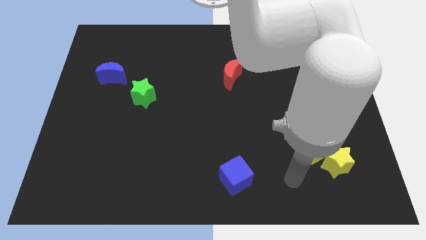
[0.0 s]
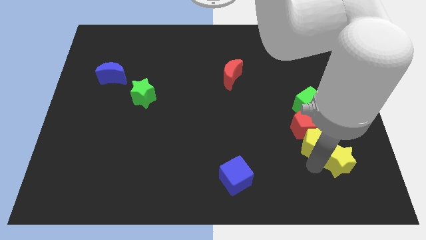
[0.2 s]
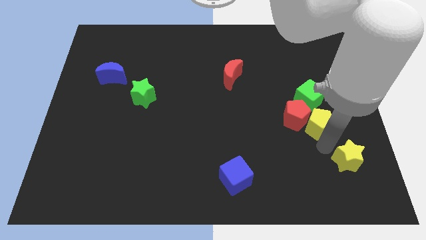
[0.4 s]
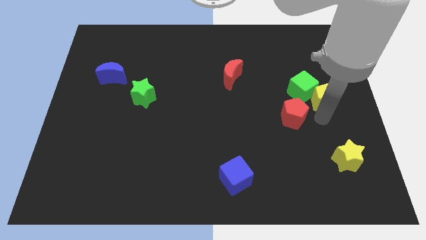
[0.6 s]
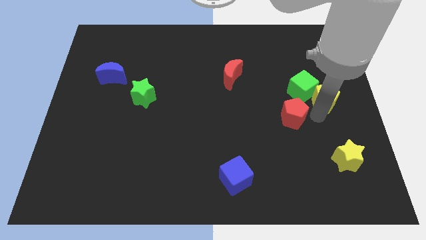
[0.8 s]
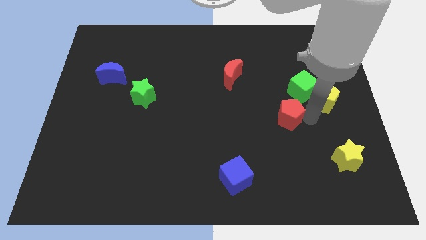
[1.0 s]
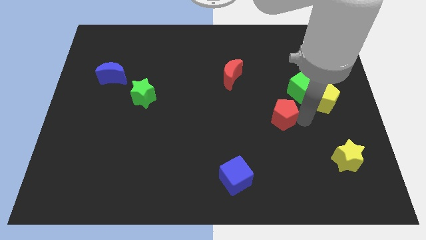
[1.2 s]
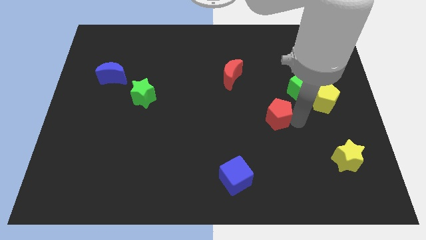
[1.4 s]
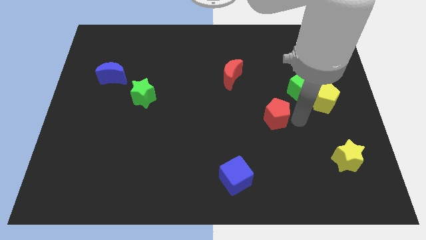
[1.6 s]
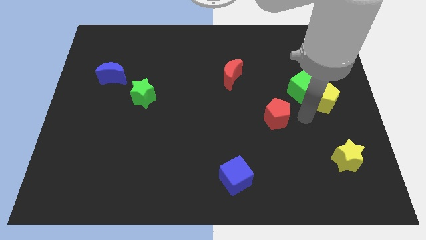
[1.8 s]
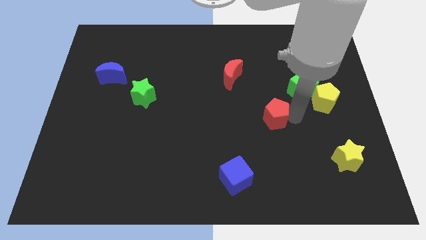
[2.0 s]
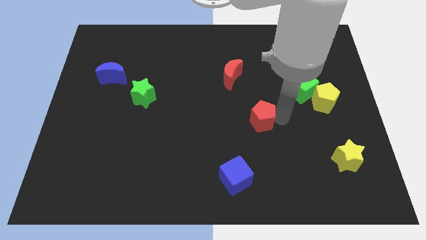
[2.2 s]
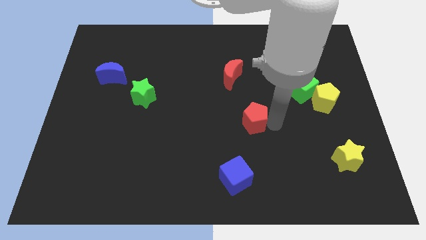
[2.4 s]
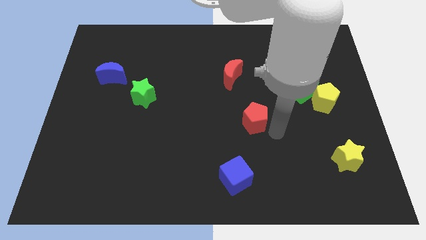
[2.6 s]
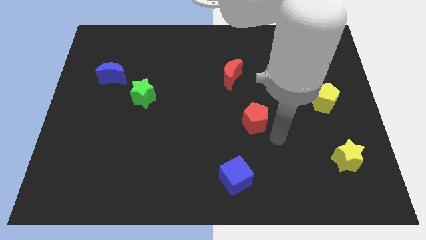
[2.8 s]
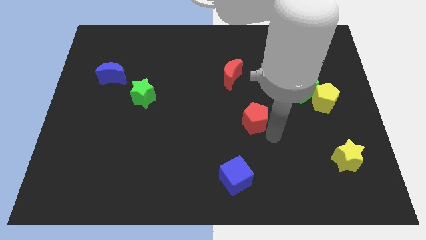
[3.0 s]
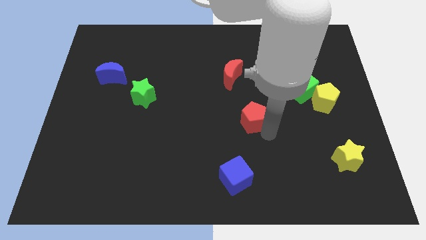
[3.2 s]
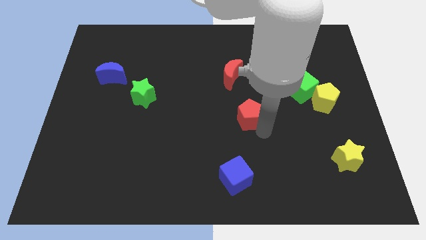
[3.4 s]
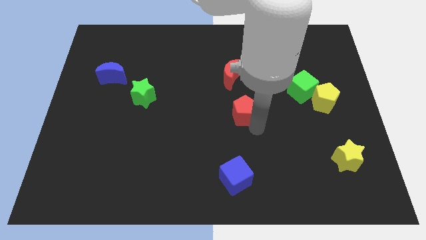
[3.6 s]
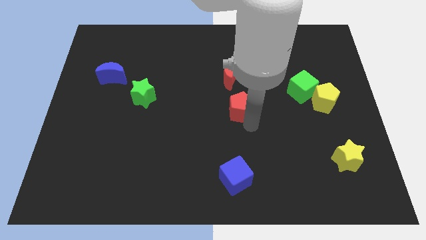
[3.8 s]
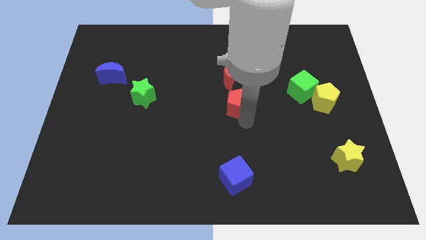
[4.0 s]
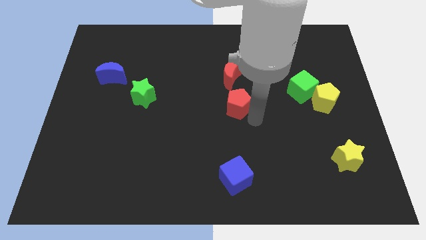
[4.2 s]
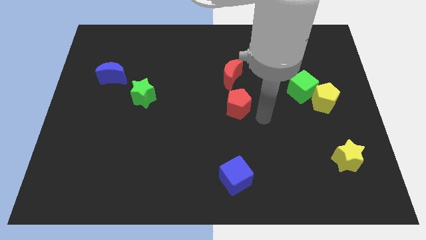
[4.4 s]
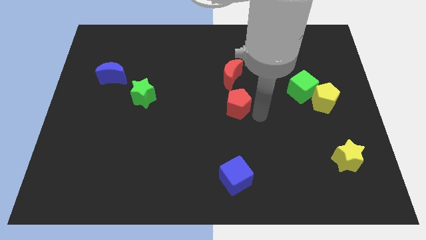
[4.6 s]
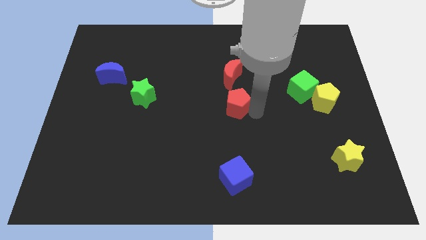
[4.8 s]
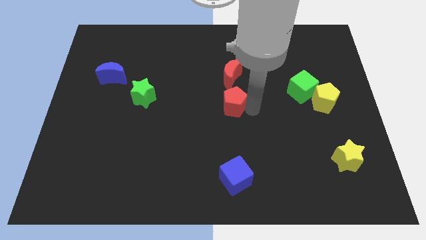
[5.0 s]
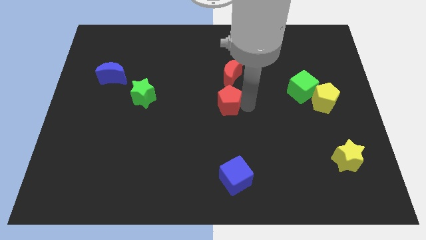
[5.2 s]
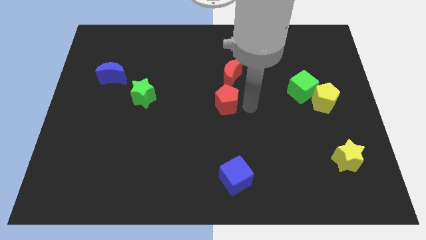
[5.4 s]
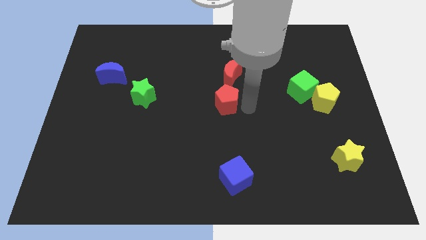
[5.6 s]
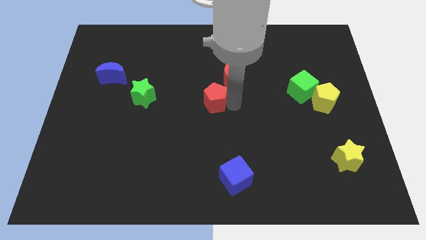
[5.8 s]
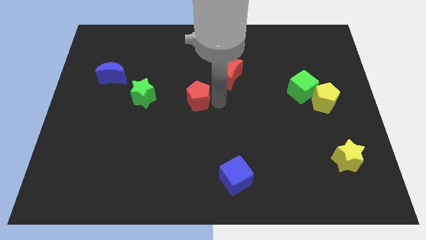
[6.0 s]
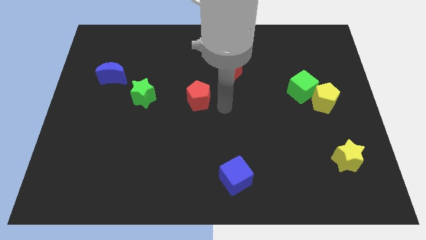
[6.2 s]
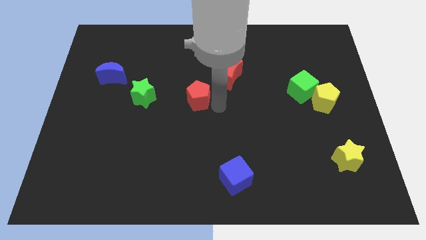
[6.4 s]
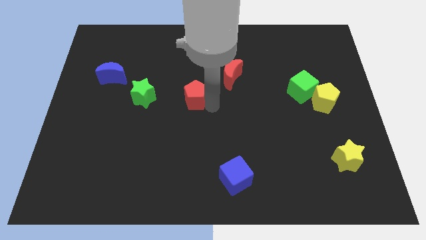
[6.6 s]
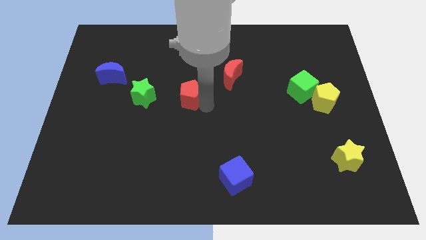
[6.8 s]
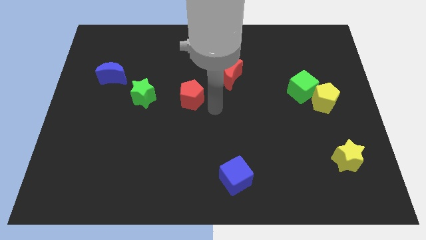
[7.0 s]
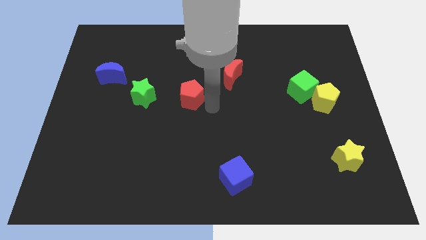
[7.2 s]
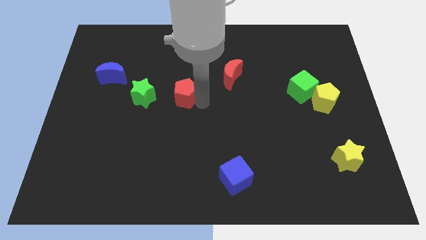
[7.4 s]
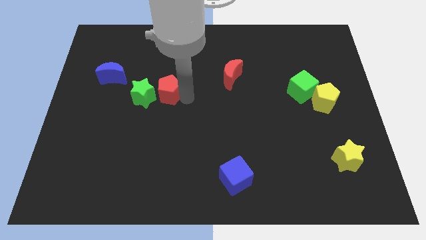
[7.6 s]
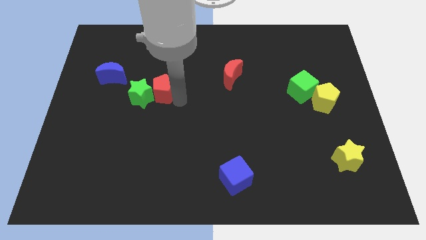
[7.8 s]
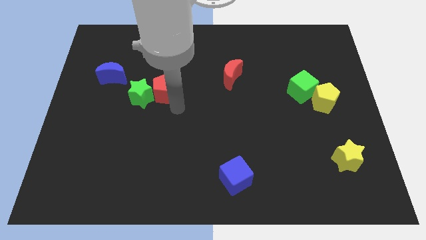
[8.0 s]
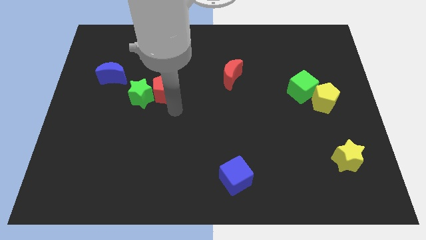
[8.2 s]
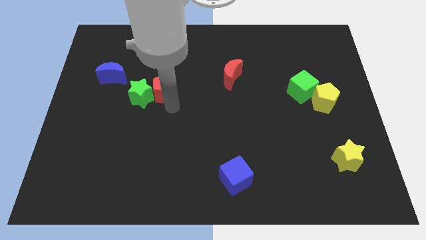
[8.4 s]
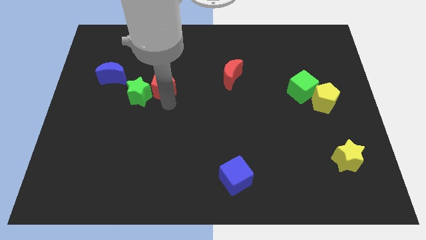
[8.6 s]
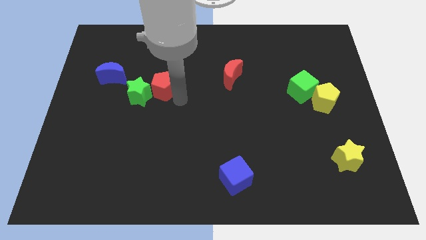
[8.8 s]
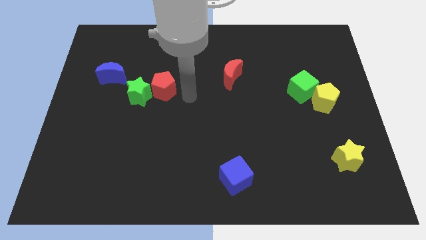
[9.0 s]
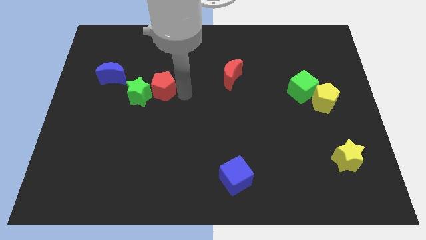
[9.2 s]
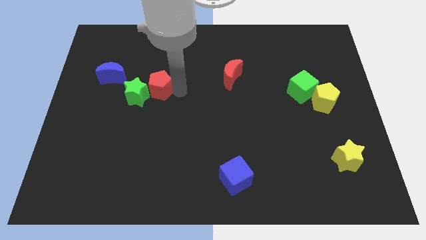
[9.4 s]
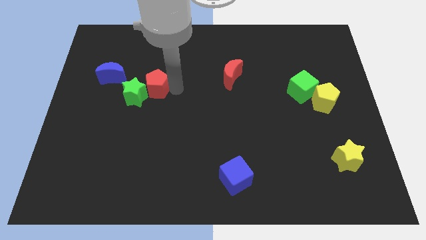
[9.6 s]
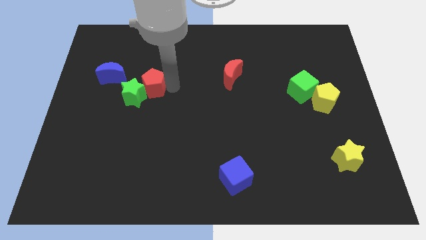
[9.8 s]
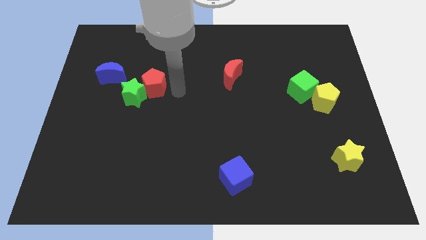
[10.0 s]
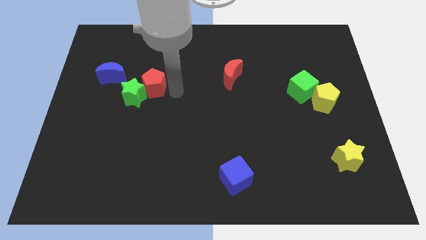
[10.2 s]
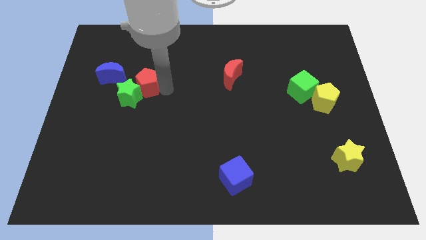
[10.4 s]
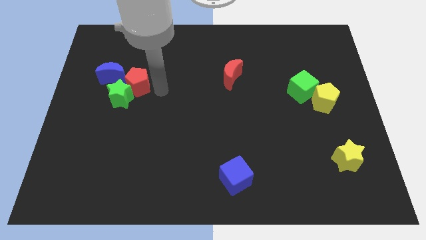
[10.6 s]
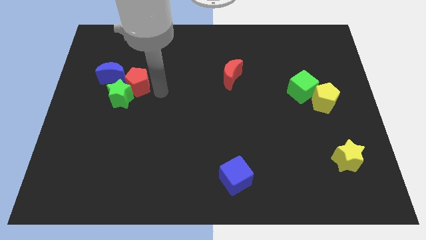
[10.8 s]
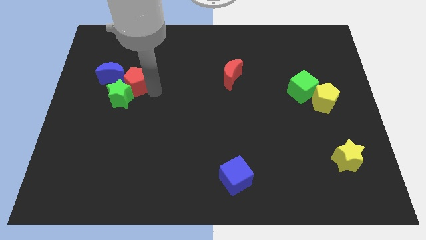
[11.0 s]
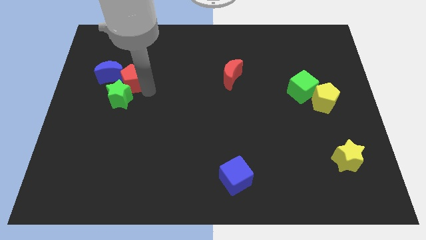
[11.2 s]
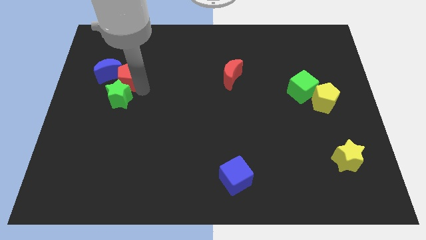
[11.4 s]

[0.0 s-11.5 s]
put the red pentagon towards the blue moon

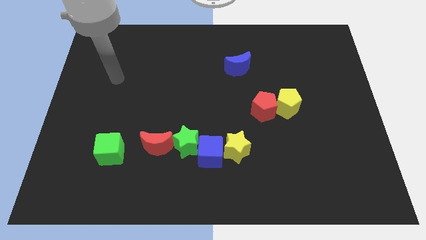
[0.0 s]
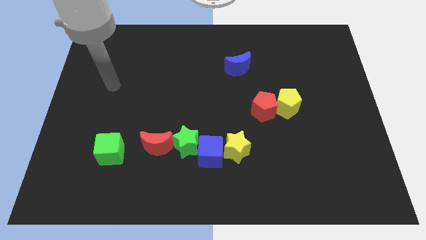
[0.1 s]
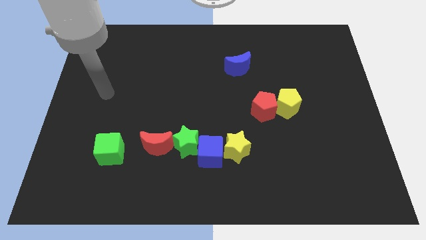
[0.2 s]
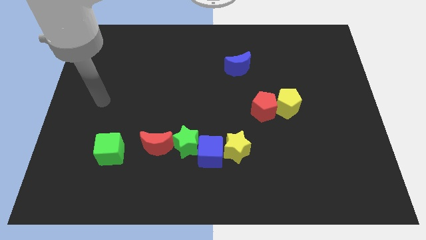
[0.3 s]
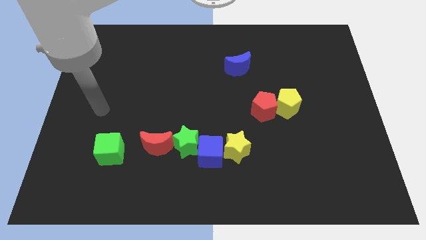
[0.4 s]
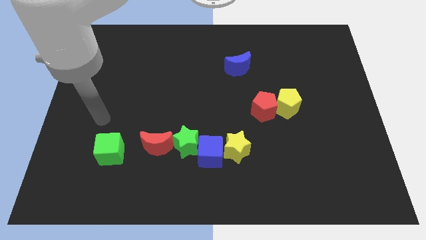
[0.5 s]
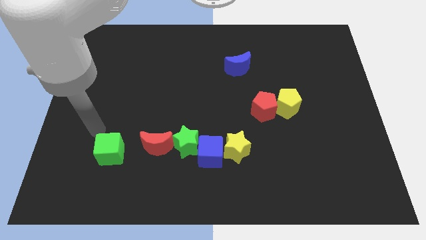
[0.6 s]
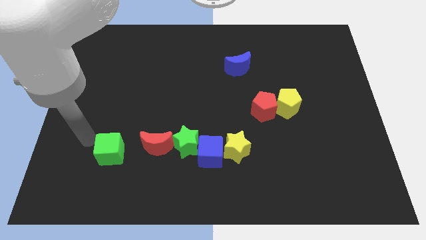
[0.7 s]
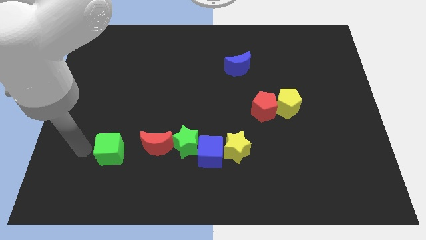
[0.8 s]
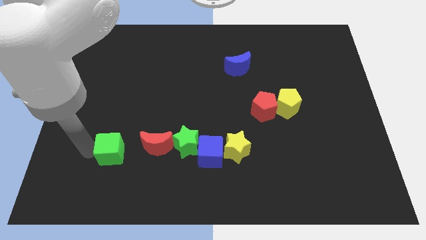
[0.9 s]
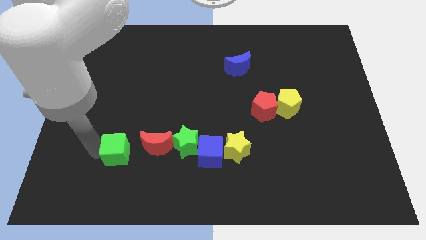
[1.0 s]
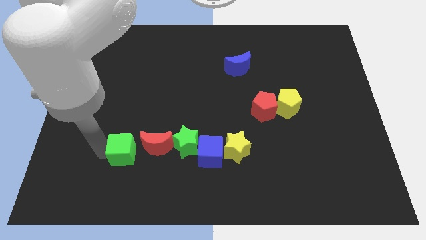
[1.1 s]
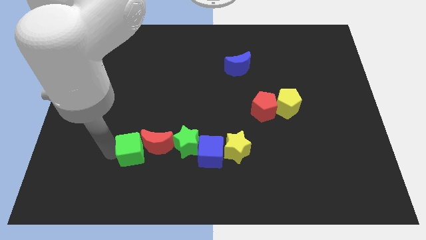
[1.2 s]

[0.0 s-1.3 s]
put the green cube next to the red moon
